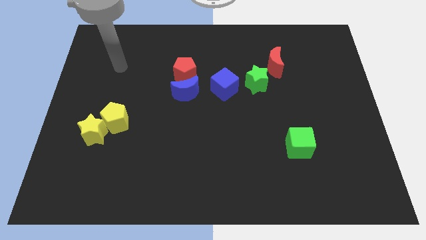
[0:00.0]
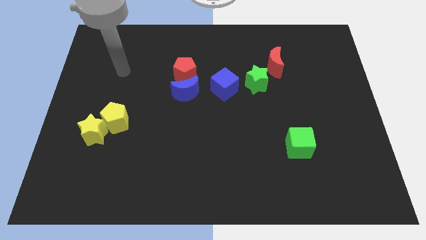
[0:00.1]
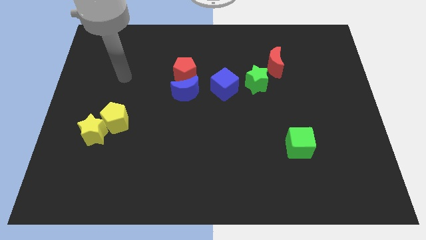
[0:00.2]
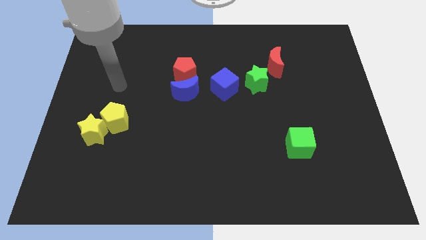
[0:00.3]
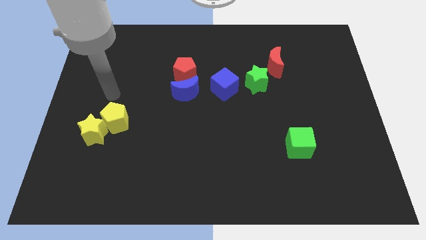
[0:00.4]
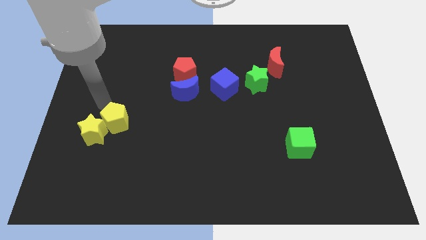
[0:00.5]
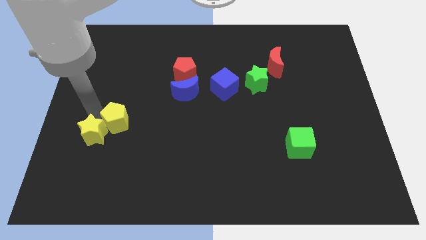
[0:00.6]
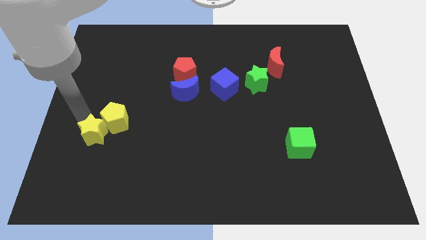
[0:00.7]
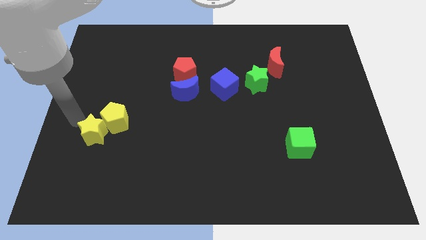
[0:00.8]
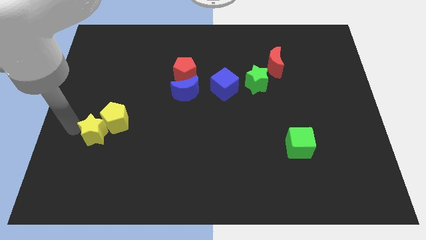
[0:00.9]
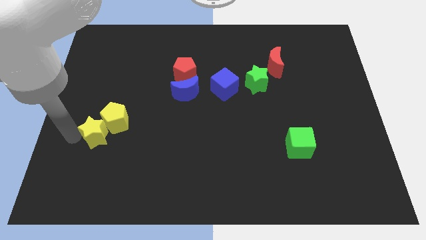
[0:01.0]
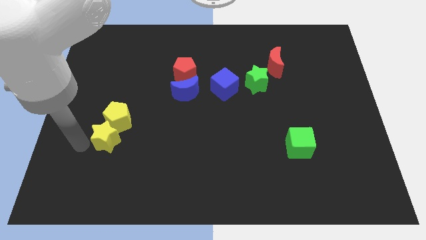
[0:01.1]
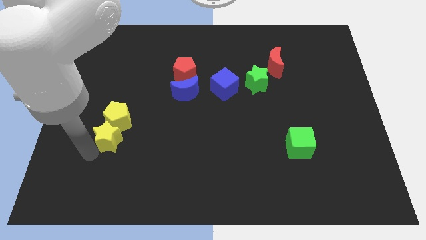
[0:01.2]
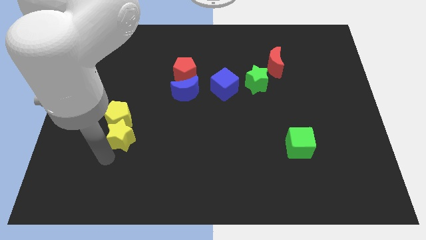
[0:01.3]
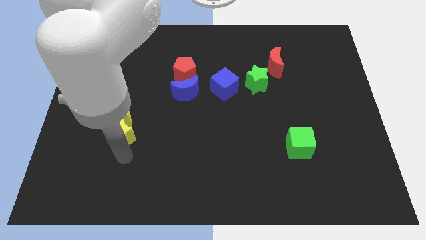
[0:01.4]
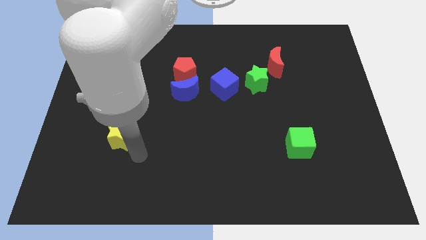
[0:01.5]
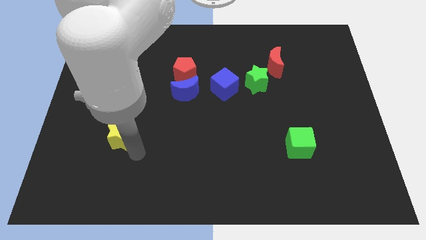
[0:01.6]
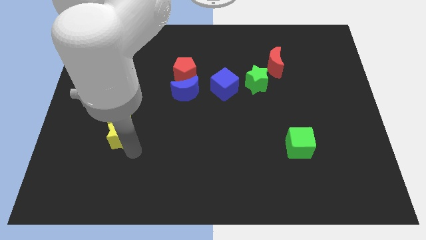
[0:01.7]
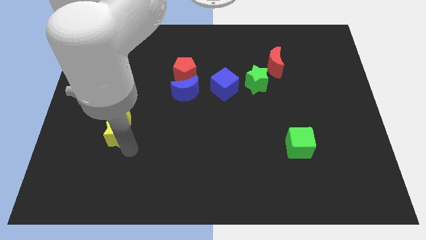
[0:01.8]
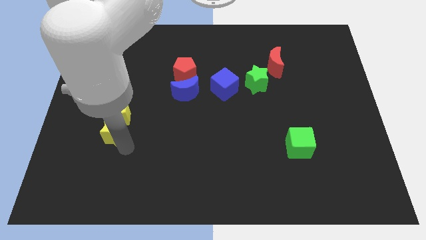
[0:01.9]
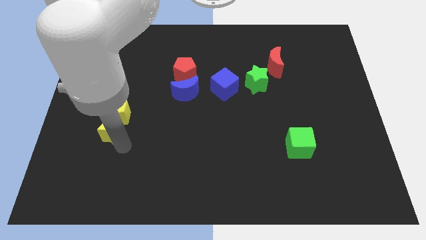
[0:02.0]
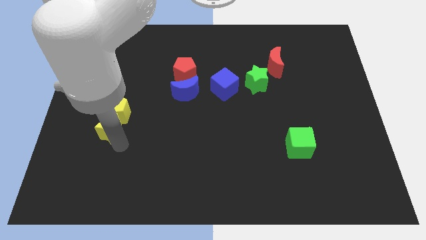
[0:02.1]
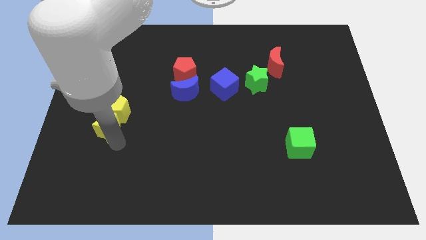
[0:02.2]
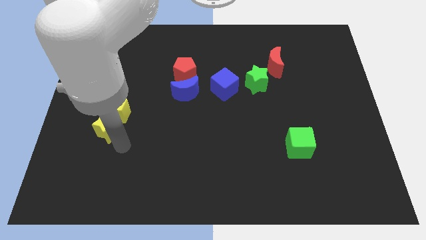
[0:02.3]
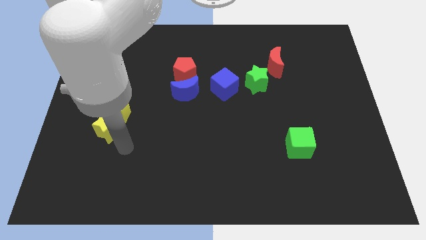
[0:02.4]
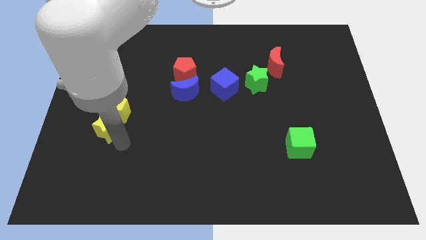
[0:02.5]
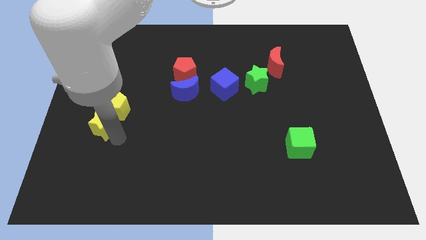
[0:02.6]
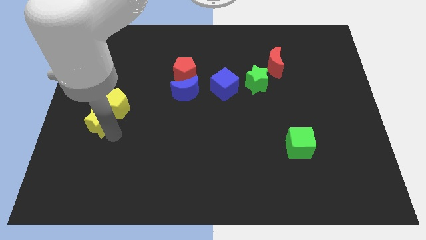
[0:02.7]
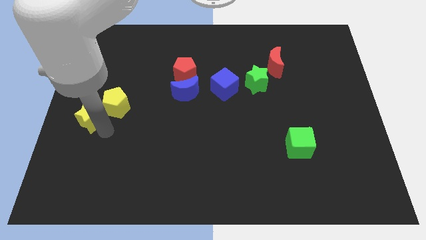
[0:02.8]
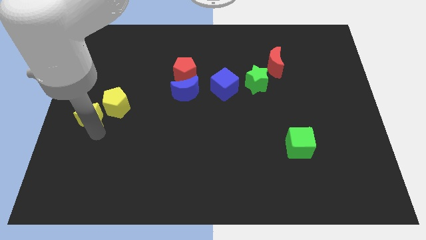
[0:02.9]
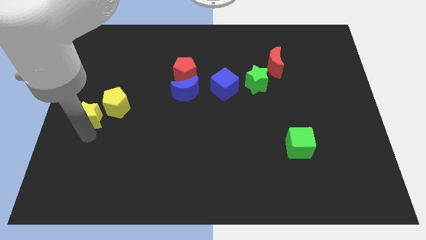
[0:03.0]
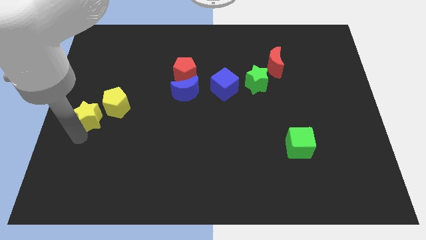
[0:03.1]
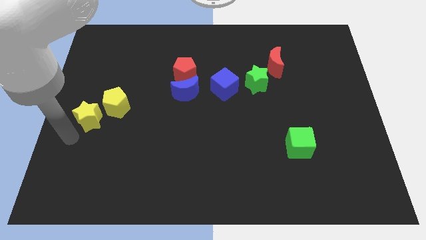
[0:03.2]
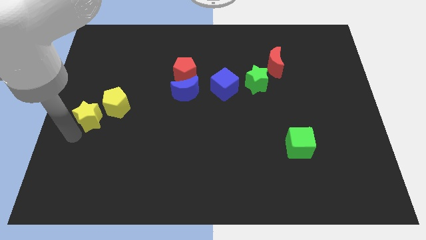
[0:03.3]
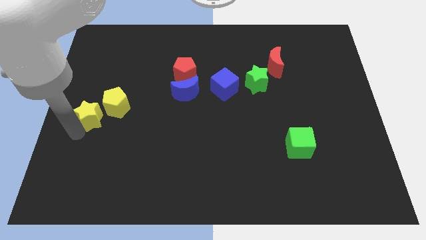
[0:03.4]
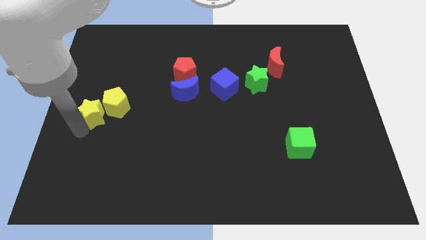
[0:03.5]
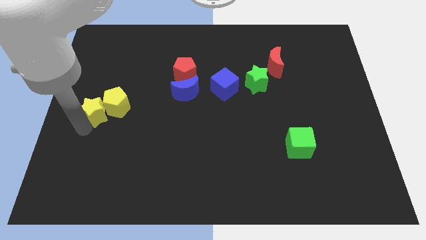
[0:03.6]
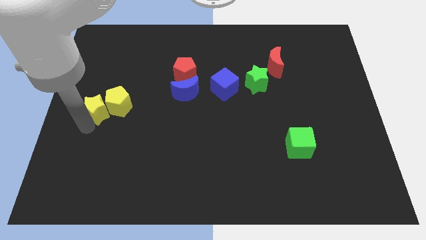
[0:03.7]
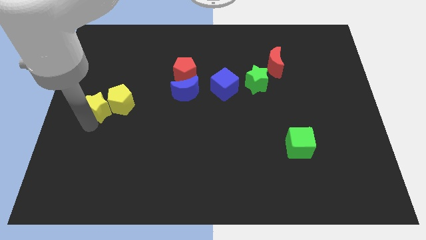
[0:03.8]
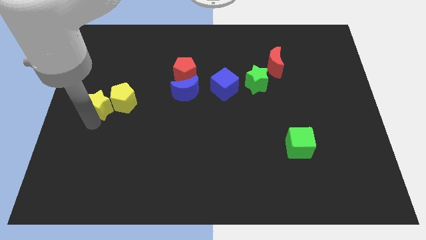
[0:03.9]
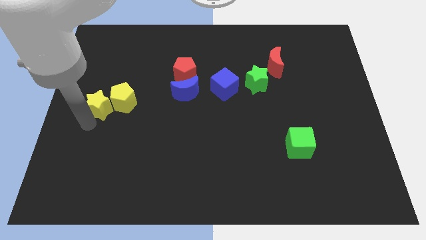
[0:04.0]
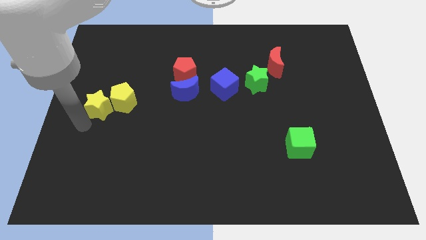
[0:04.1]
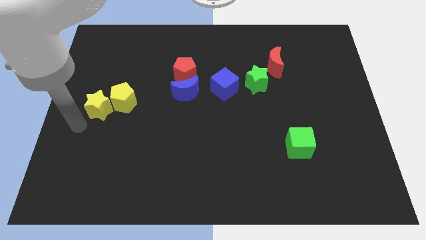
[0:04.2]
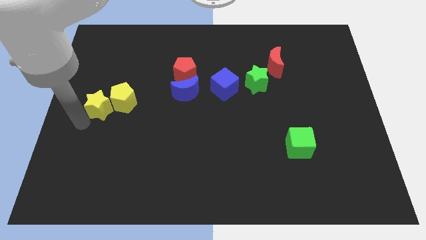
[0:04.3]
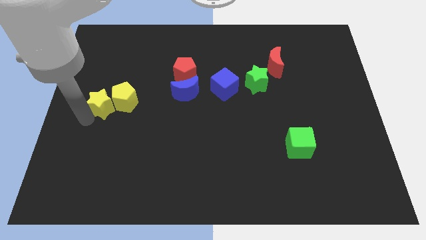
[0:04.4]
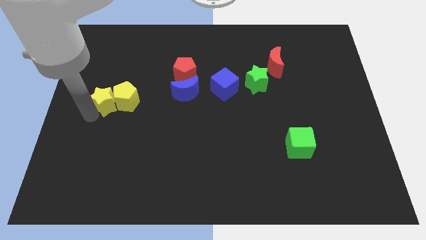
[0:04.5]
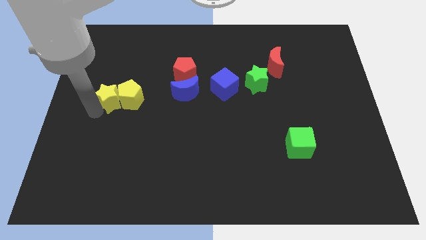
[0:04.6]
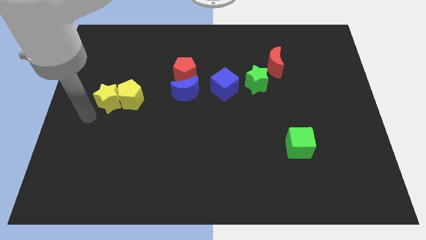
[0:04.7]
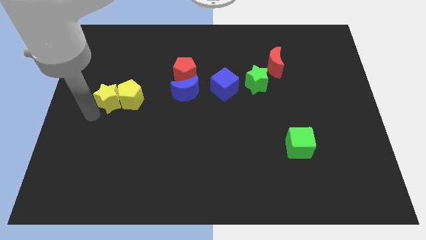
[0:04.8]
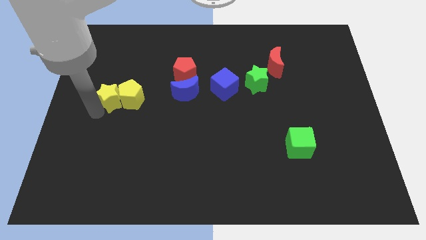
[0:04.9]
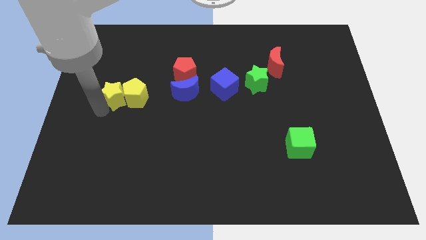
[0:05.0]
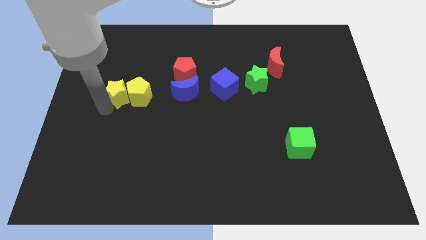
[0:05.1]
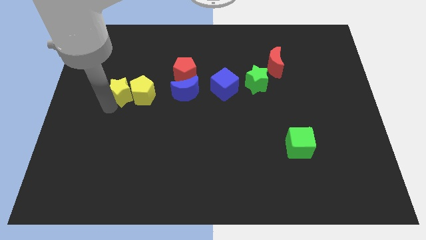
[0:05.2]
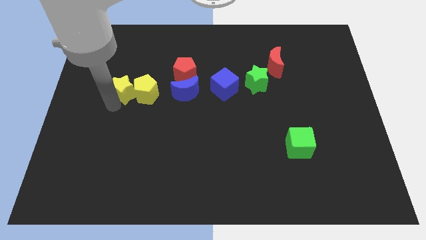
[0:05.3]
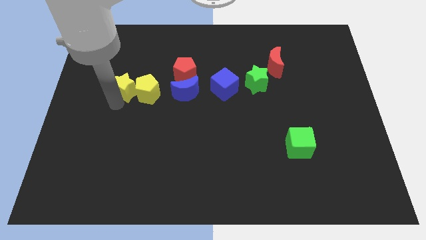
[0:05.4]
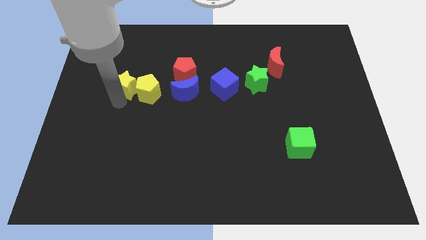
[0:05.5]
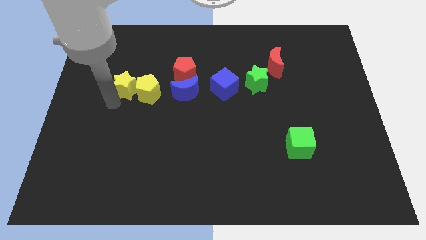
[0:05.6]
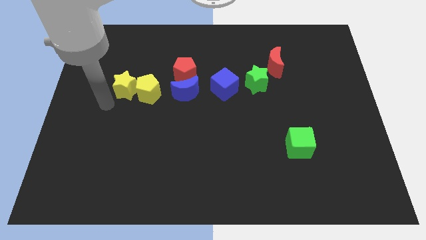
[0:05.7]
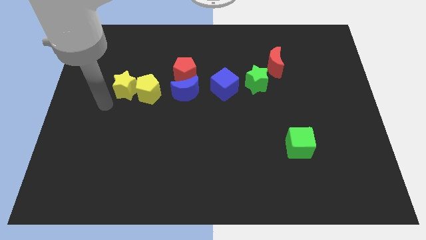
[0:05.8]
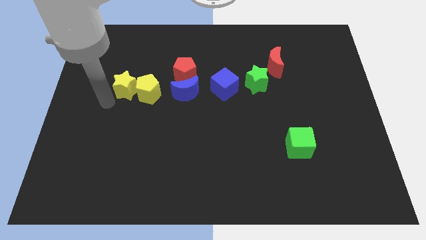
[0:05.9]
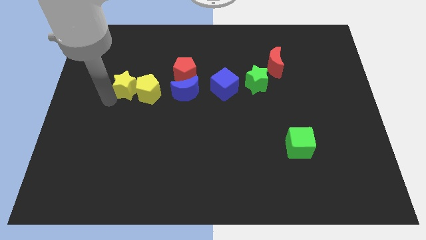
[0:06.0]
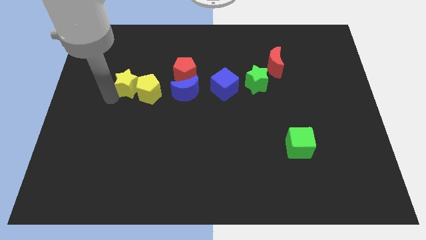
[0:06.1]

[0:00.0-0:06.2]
move the yellow star just left of the red pentagon

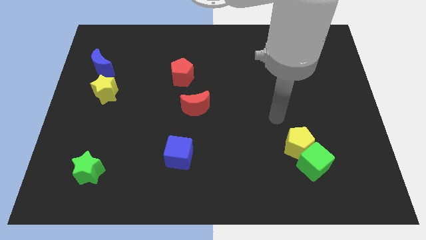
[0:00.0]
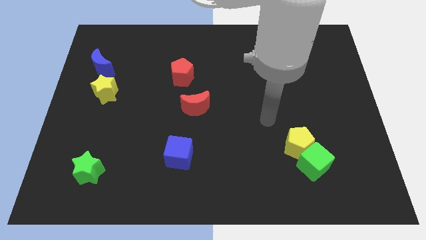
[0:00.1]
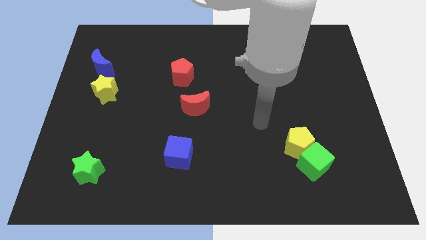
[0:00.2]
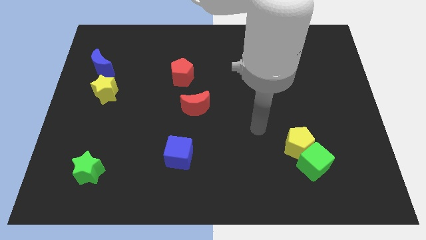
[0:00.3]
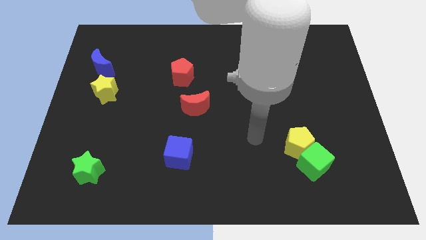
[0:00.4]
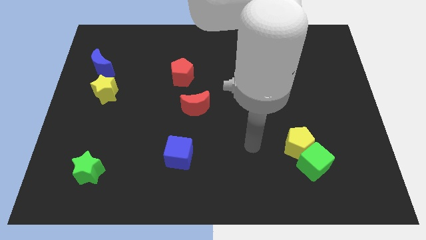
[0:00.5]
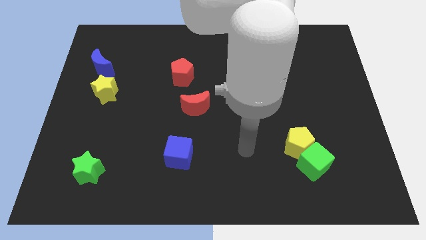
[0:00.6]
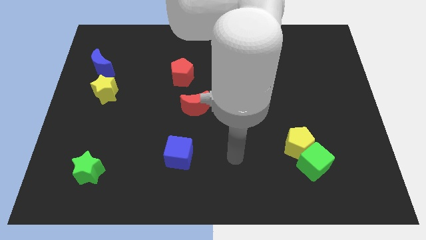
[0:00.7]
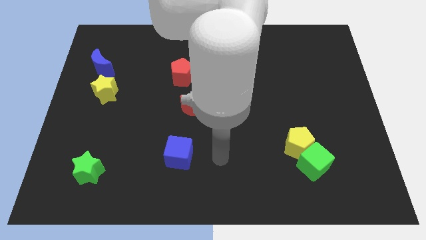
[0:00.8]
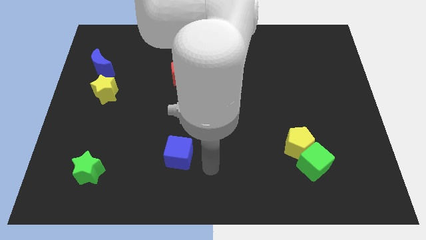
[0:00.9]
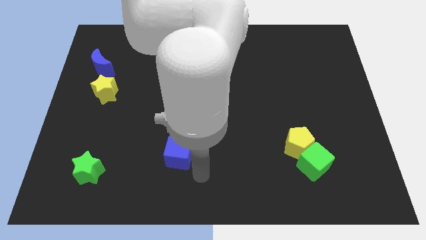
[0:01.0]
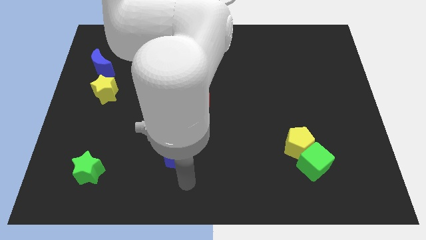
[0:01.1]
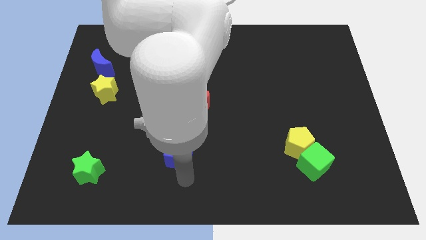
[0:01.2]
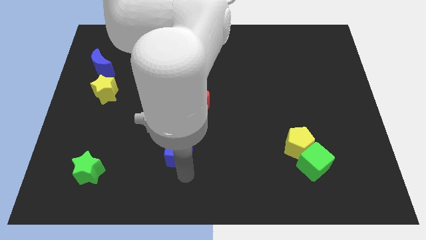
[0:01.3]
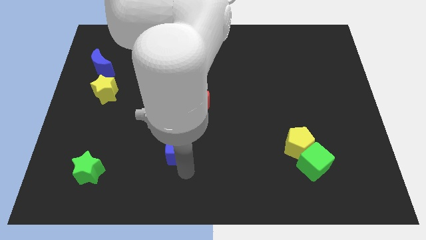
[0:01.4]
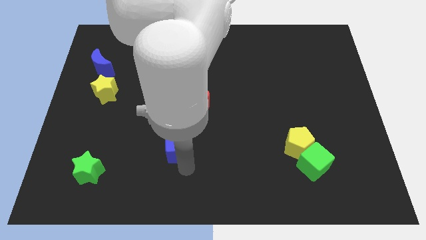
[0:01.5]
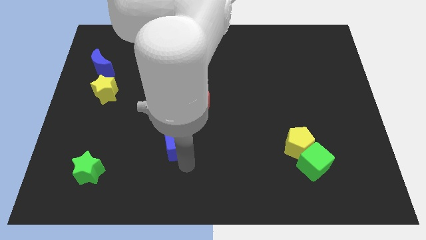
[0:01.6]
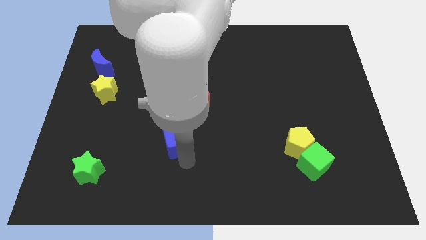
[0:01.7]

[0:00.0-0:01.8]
move the blue cube diagonally down and to the left of the red moon
